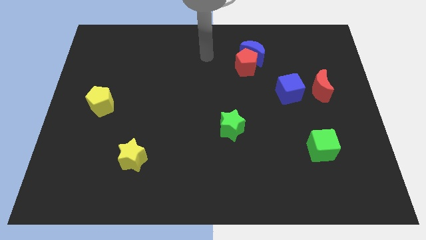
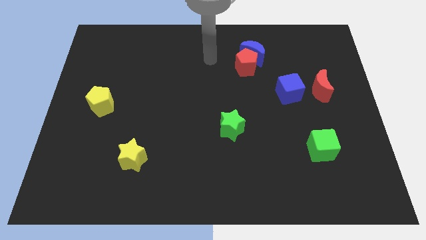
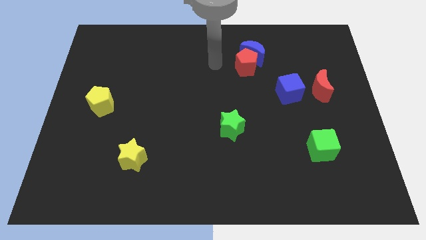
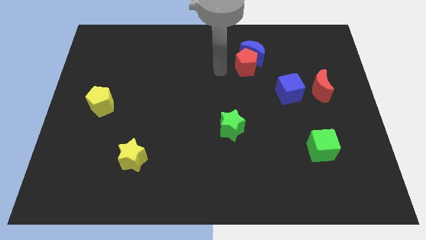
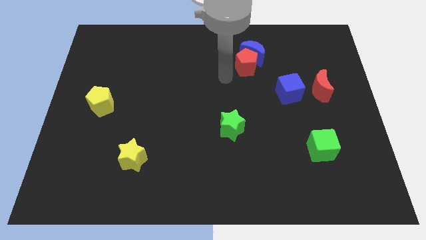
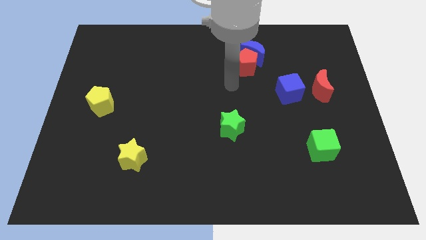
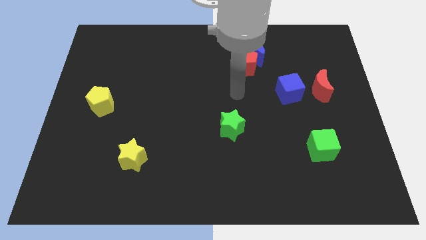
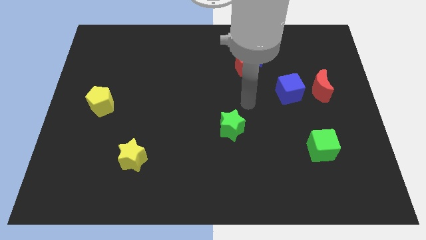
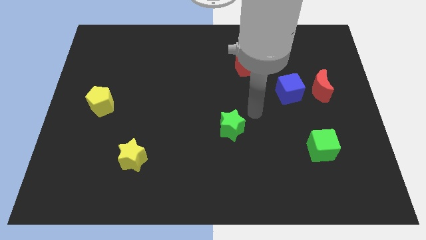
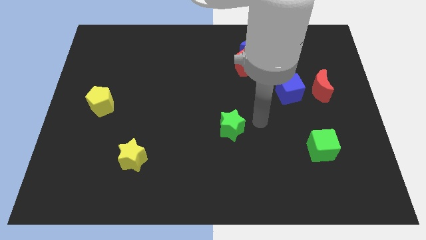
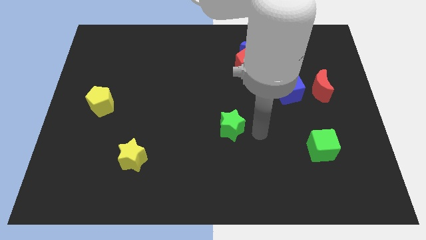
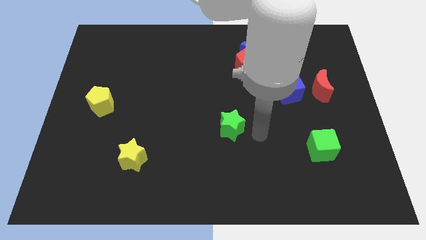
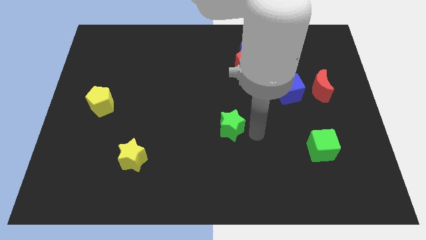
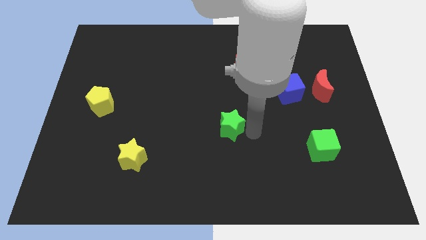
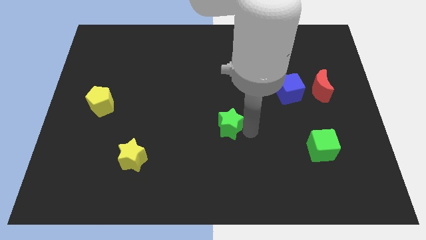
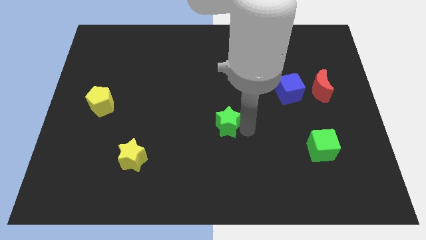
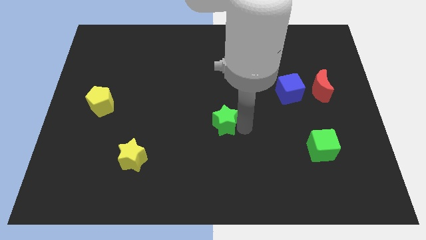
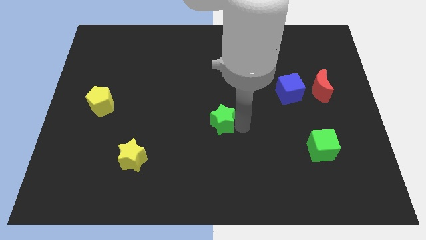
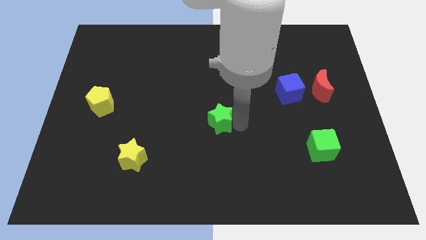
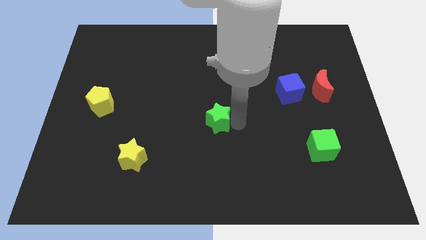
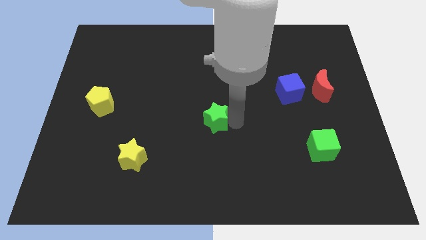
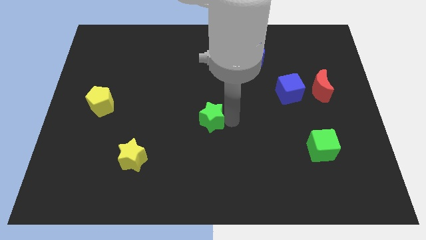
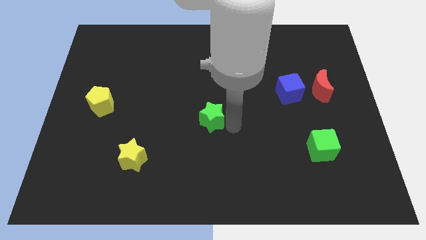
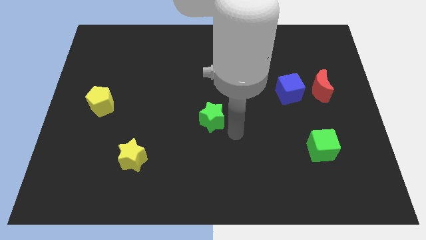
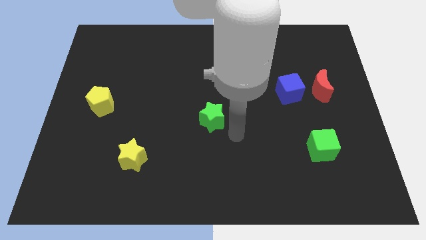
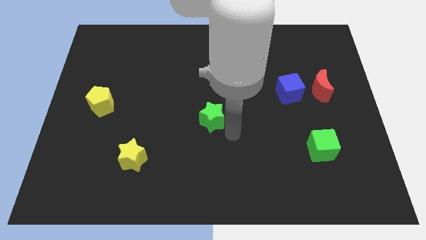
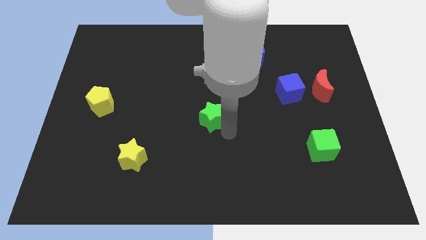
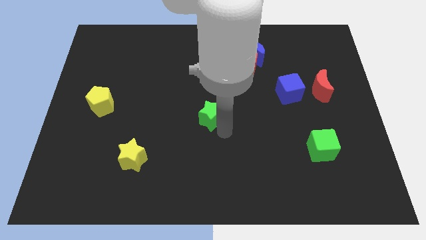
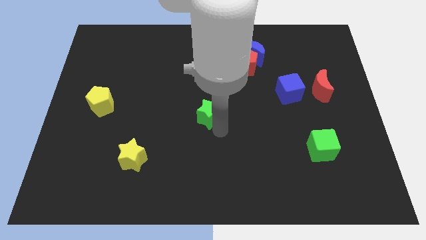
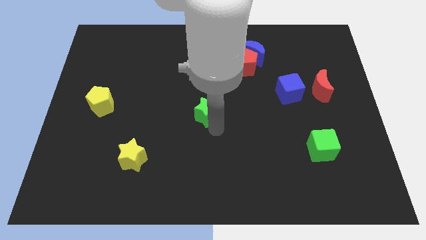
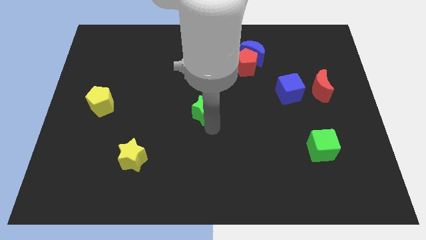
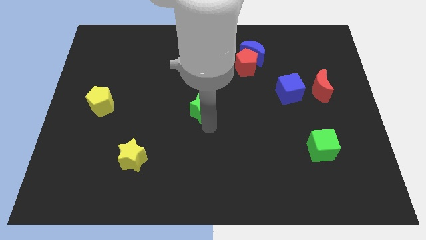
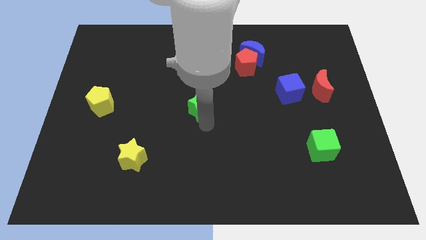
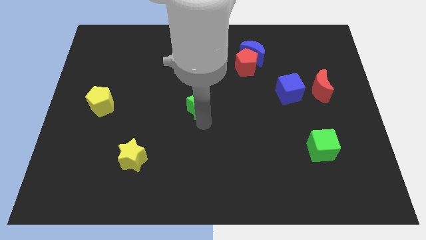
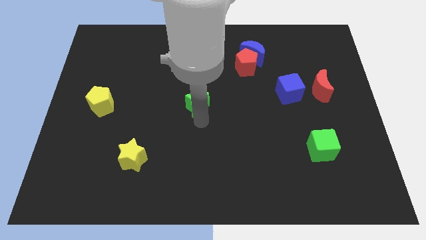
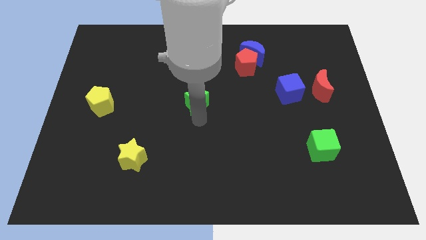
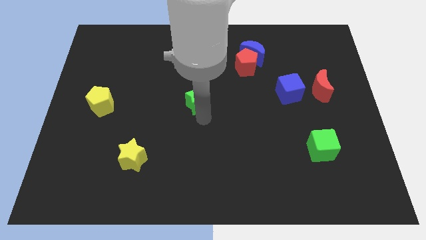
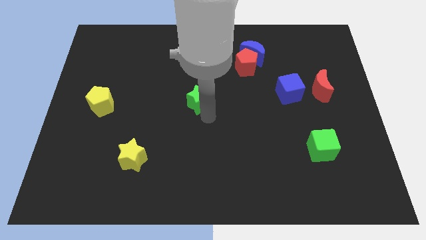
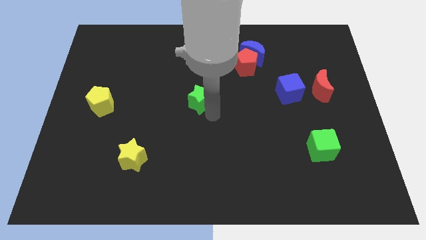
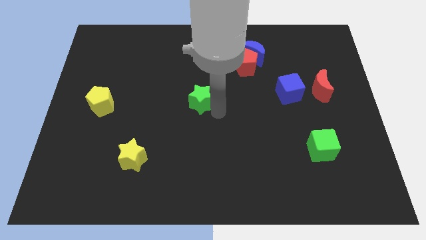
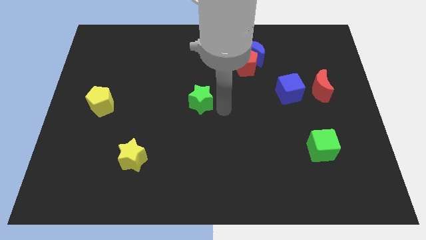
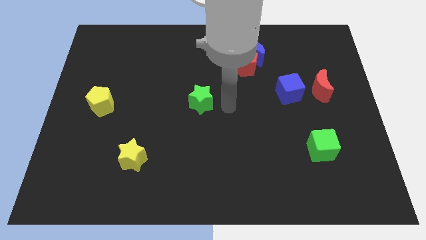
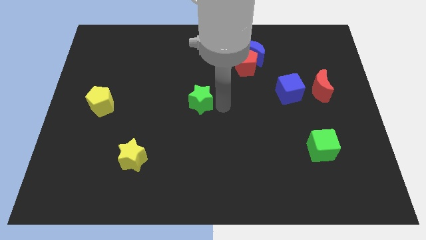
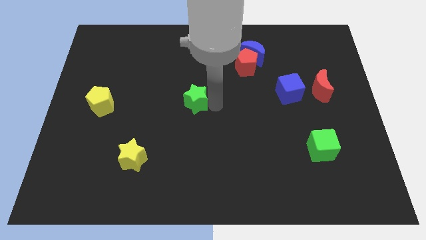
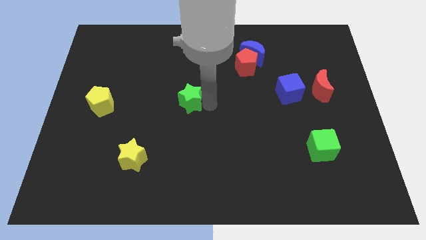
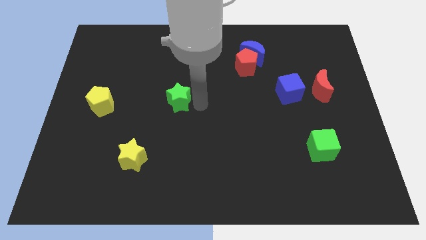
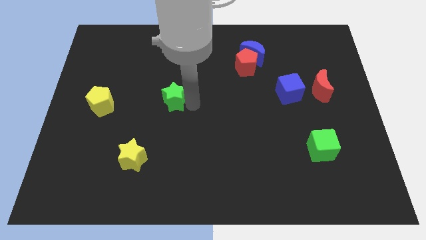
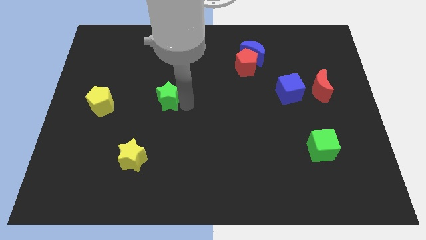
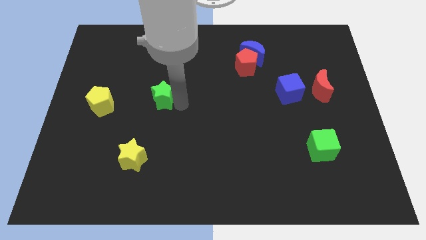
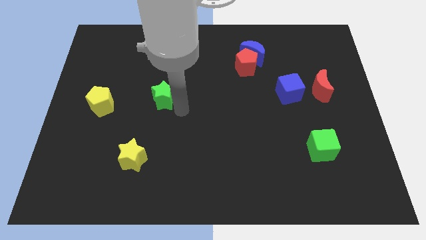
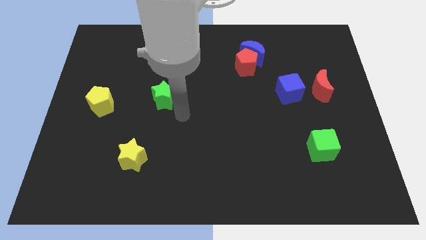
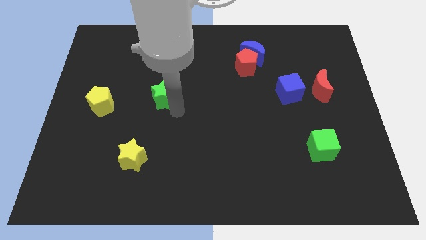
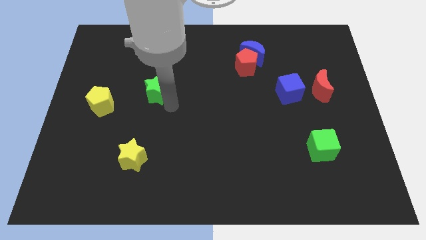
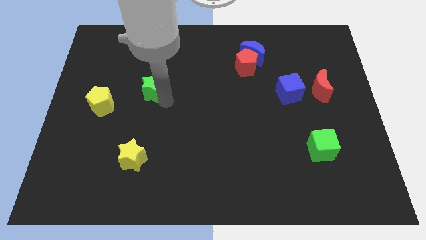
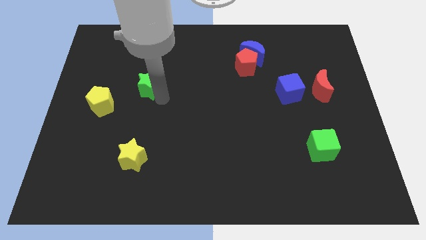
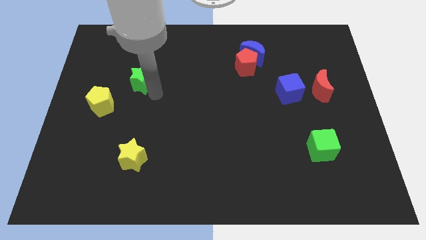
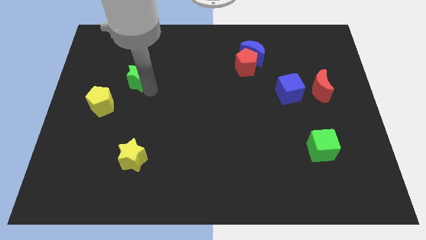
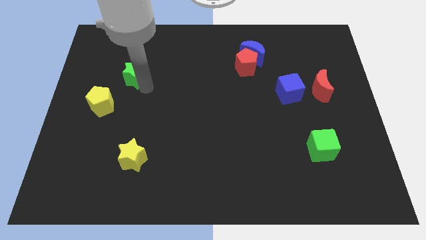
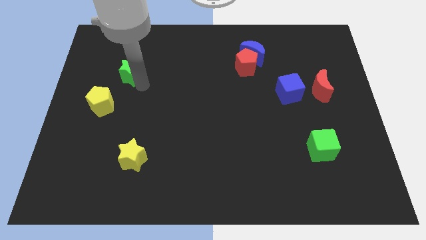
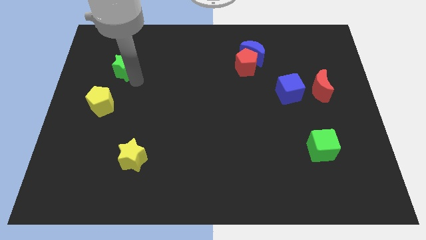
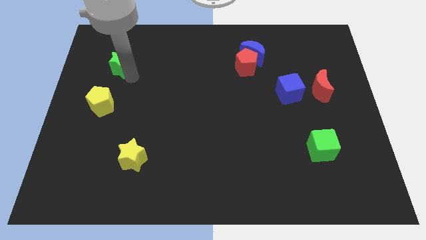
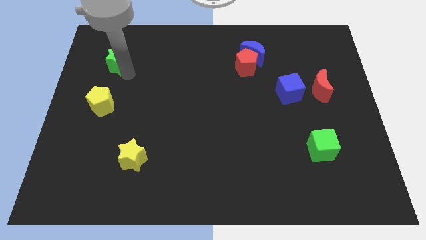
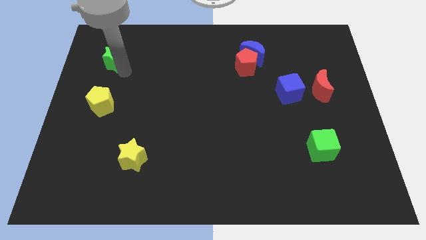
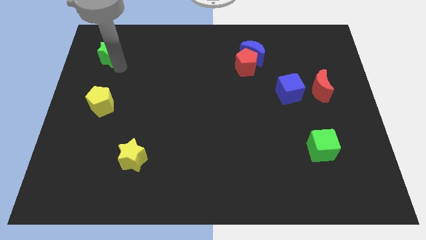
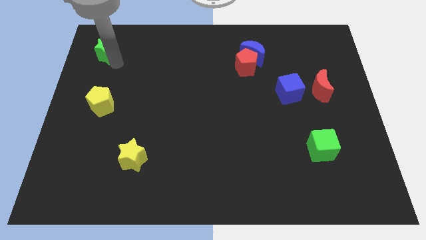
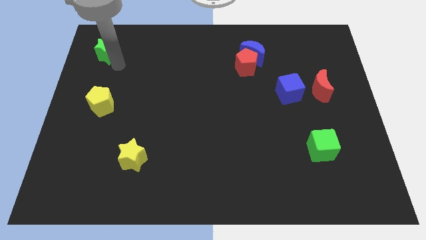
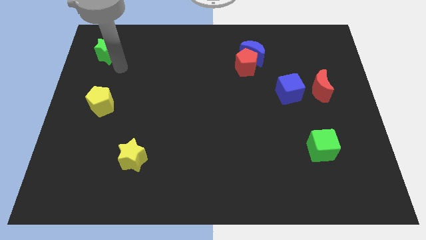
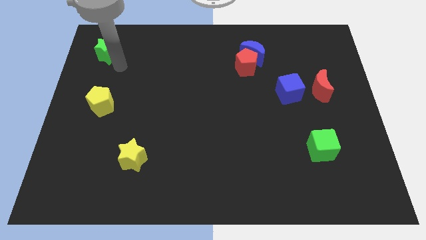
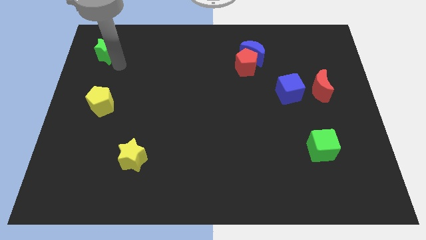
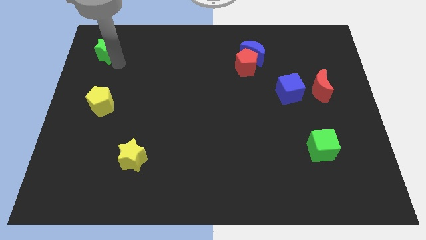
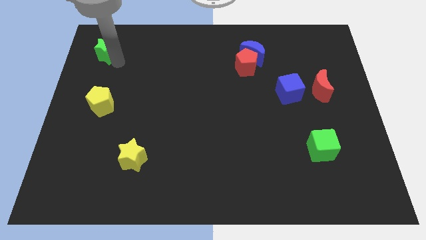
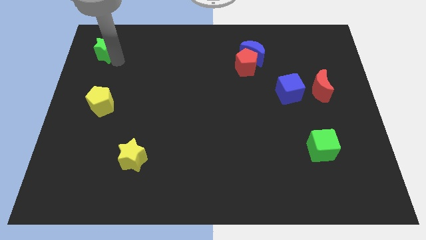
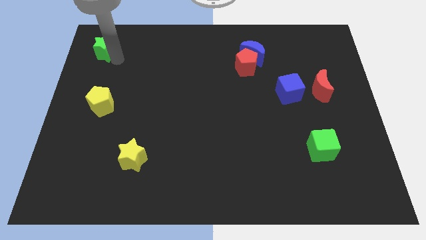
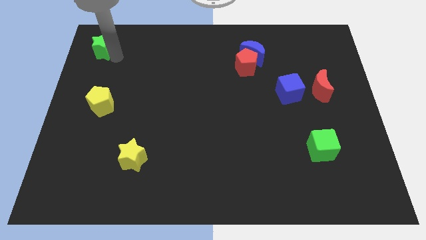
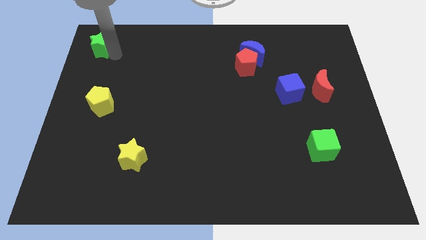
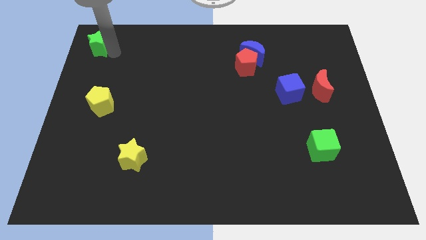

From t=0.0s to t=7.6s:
slide the green star to the top left corner
